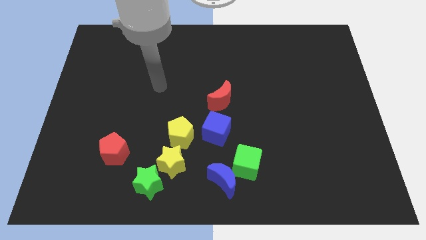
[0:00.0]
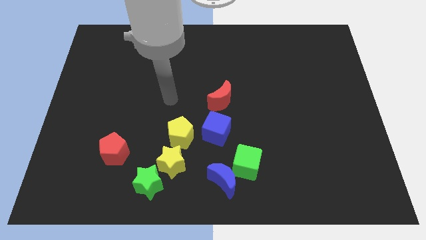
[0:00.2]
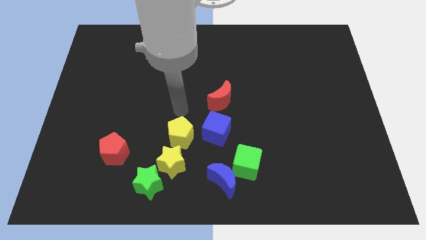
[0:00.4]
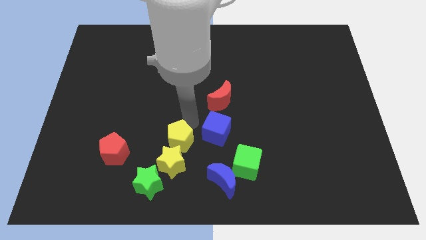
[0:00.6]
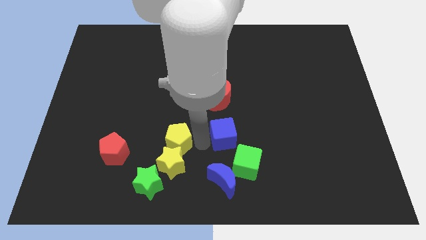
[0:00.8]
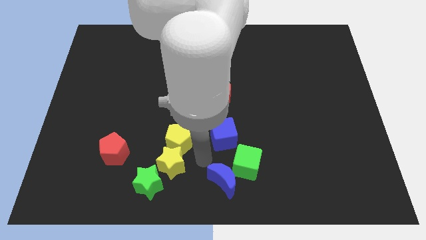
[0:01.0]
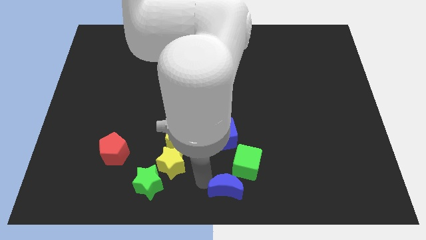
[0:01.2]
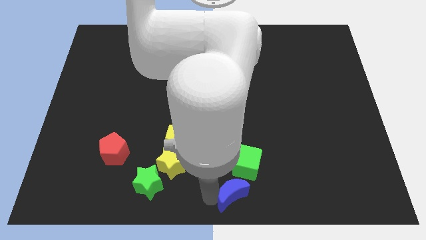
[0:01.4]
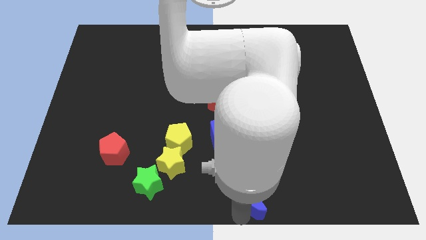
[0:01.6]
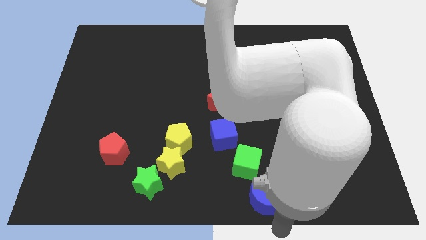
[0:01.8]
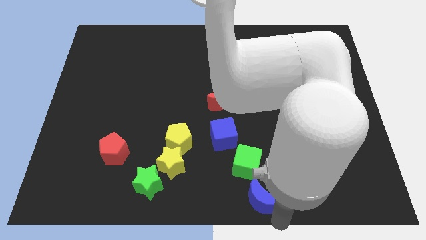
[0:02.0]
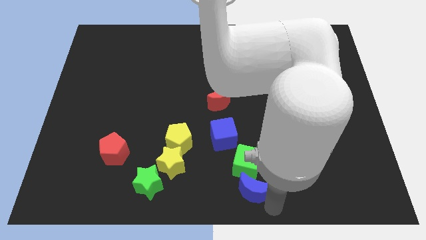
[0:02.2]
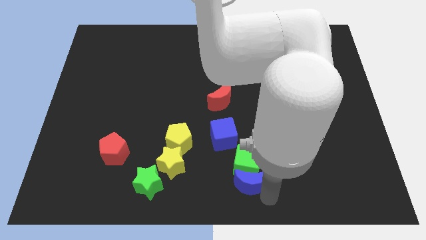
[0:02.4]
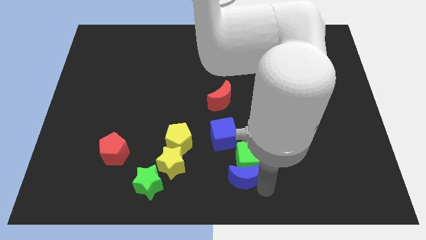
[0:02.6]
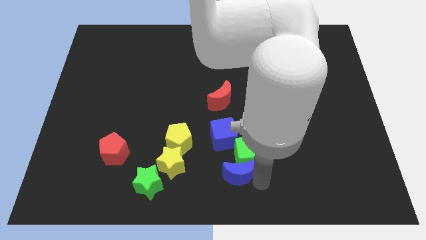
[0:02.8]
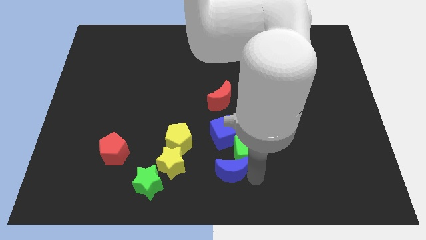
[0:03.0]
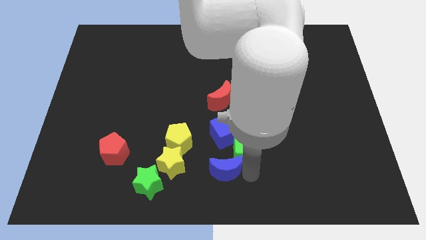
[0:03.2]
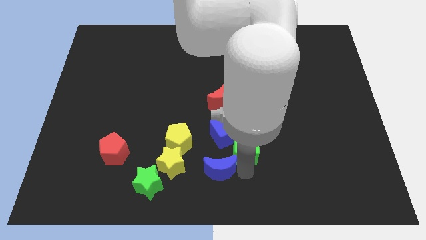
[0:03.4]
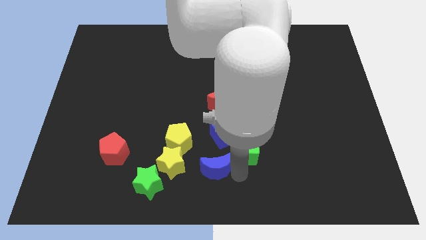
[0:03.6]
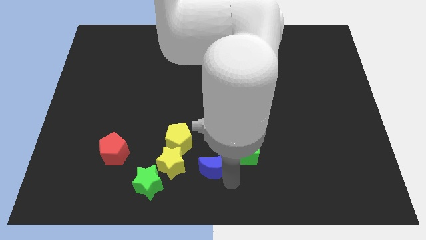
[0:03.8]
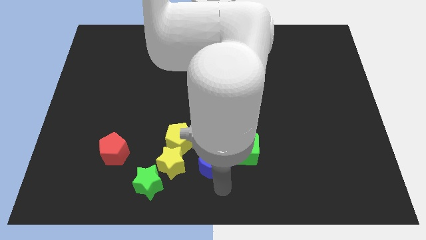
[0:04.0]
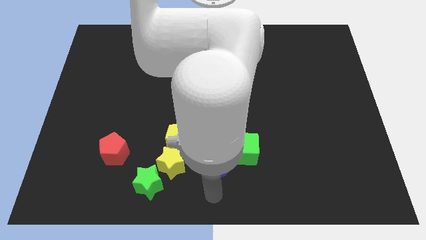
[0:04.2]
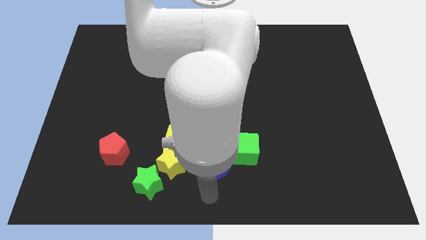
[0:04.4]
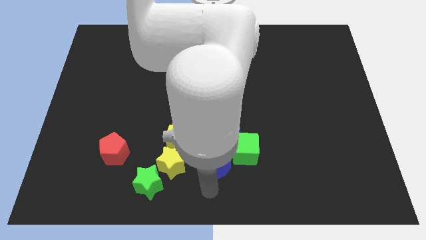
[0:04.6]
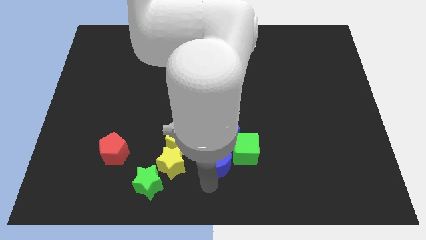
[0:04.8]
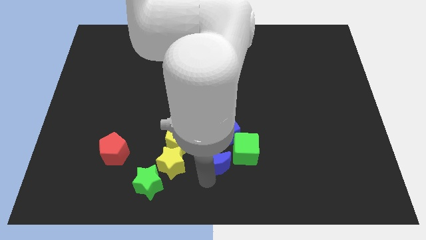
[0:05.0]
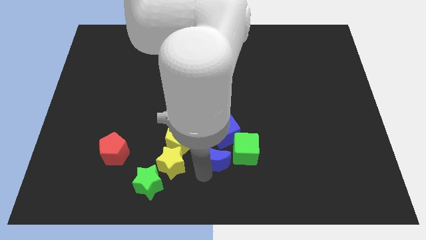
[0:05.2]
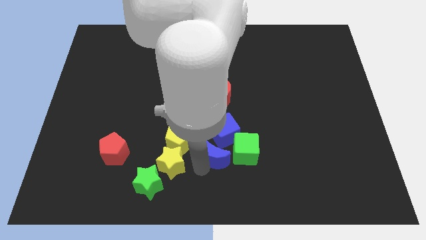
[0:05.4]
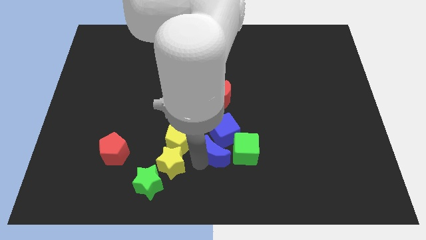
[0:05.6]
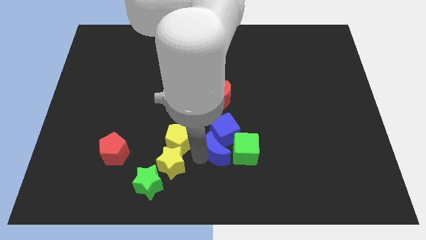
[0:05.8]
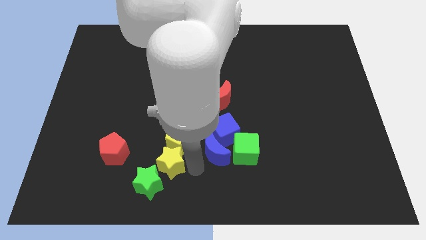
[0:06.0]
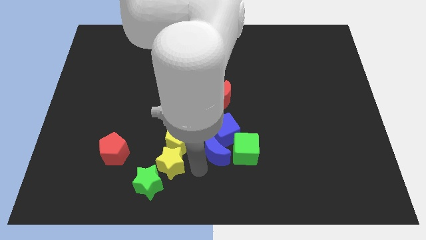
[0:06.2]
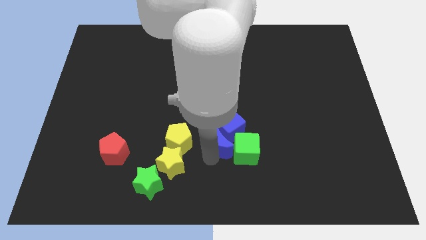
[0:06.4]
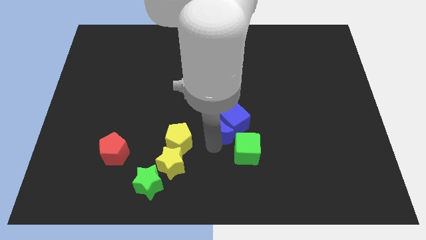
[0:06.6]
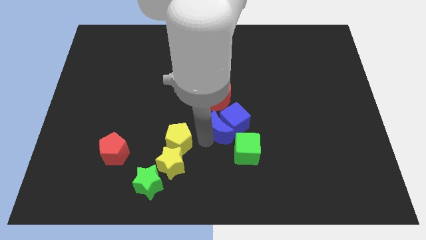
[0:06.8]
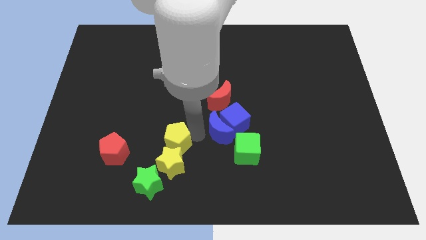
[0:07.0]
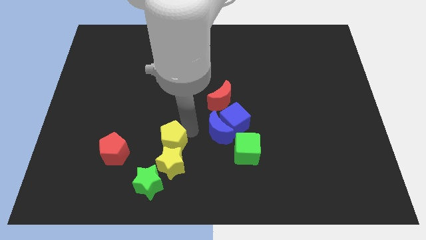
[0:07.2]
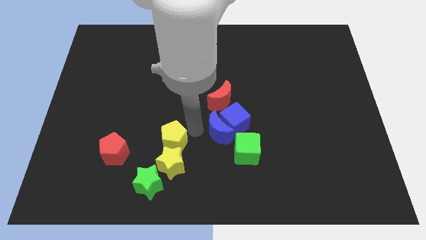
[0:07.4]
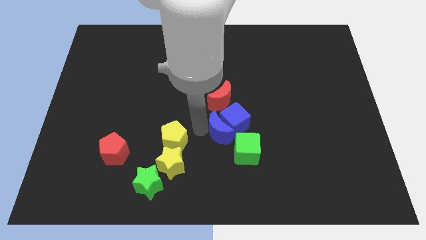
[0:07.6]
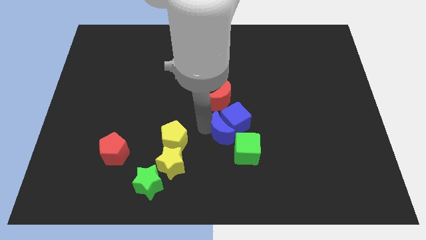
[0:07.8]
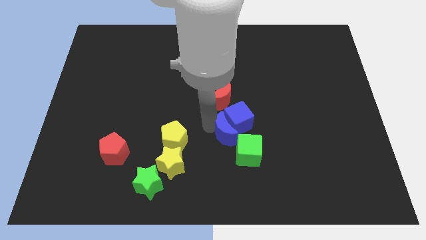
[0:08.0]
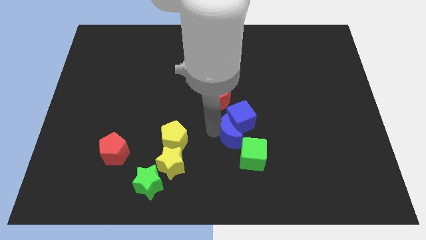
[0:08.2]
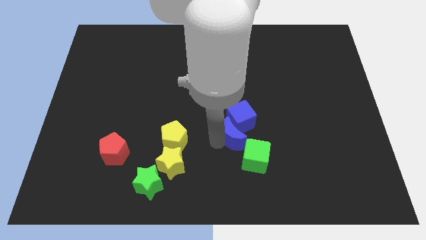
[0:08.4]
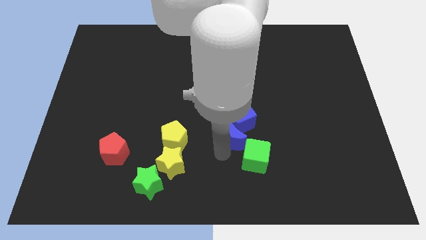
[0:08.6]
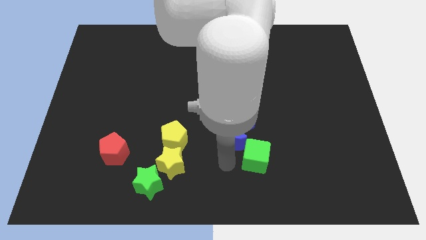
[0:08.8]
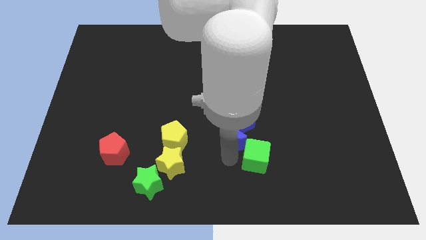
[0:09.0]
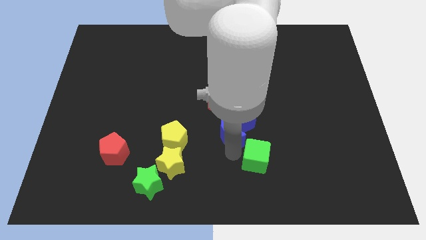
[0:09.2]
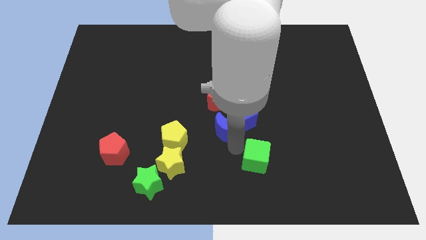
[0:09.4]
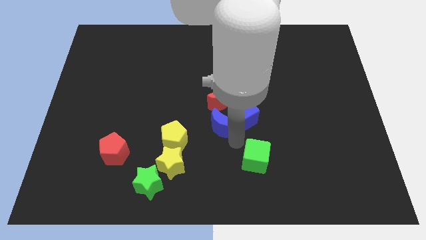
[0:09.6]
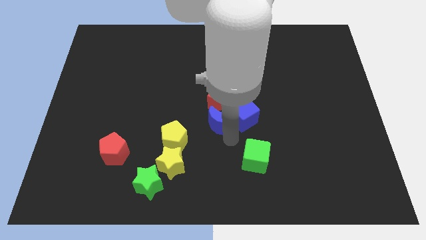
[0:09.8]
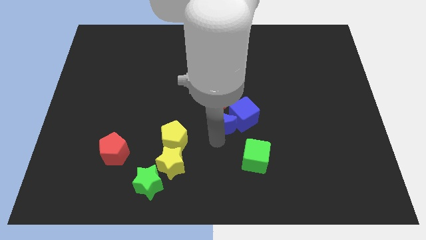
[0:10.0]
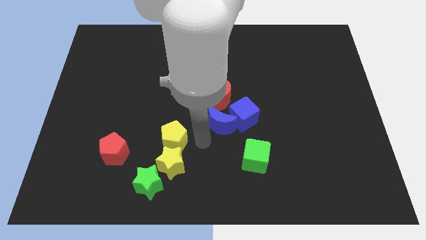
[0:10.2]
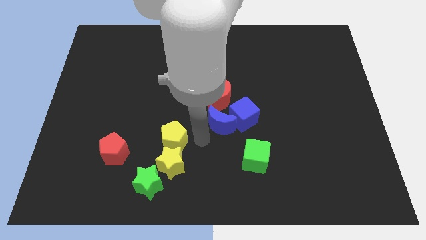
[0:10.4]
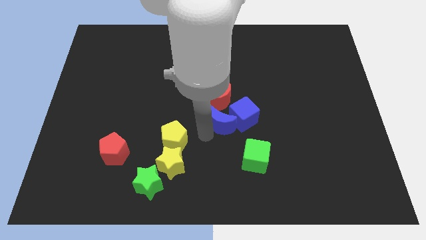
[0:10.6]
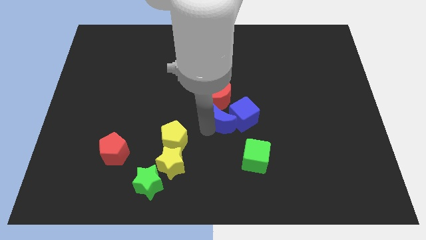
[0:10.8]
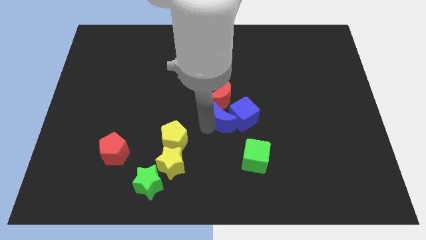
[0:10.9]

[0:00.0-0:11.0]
put the blue moon to the red moon

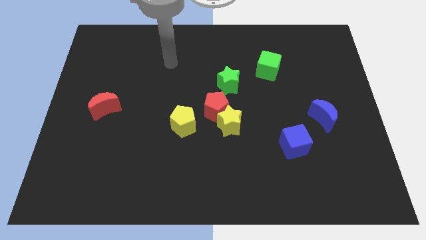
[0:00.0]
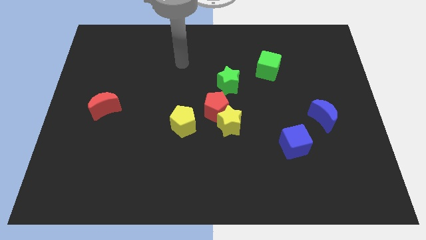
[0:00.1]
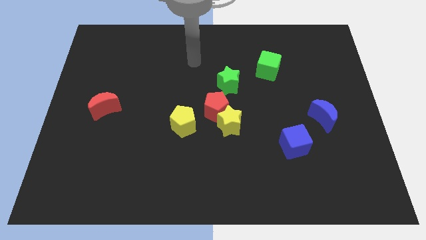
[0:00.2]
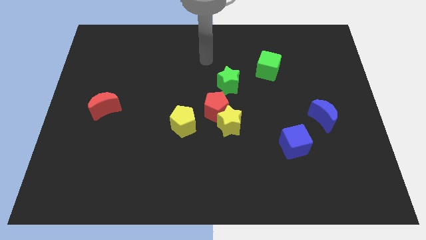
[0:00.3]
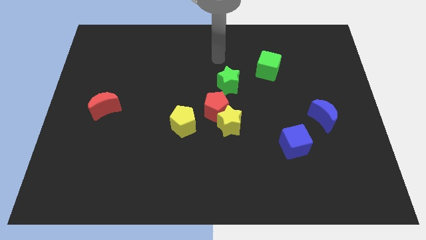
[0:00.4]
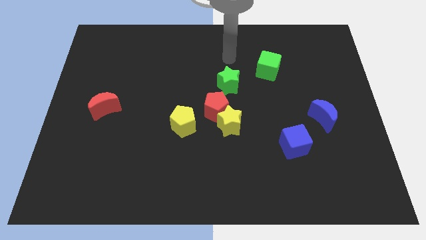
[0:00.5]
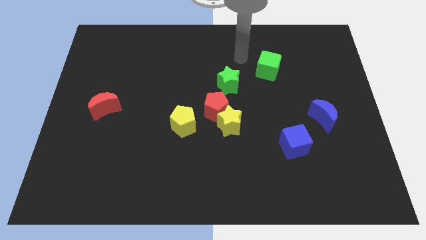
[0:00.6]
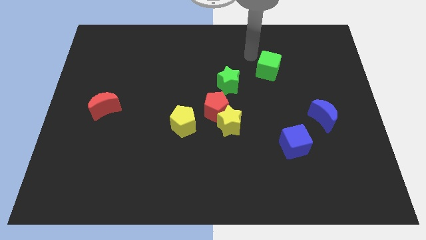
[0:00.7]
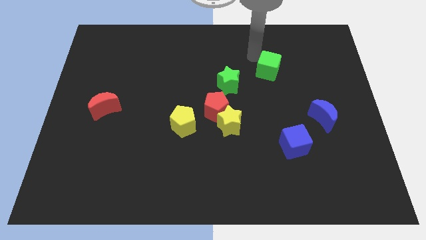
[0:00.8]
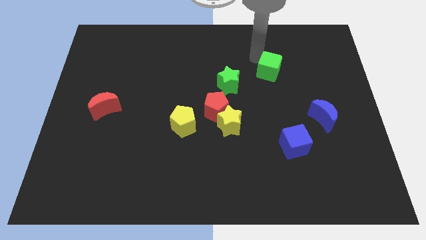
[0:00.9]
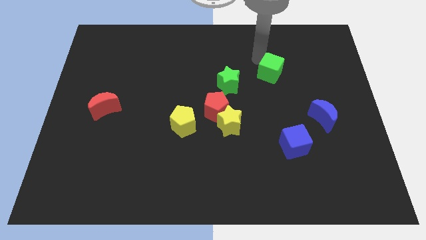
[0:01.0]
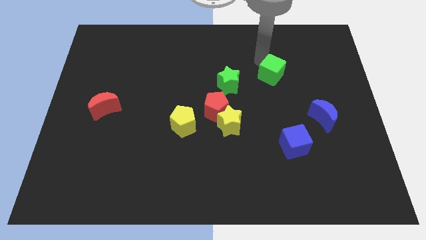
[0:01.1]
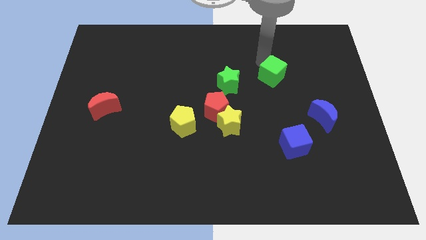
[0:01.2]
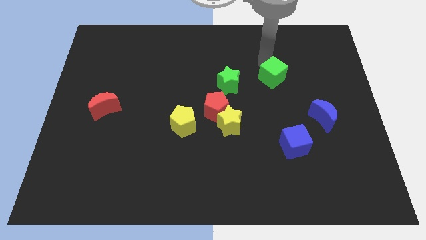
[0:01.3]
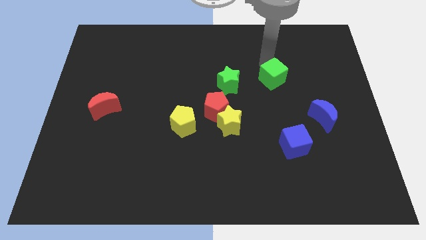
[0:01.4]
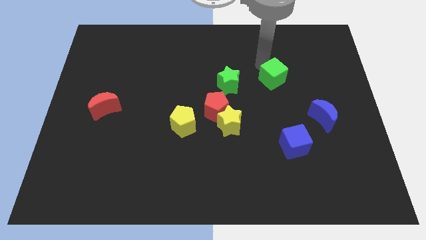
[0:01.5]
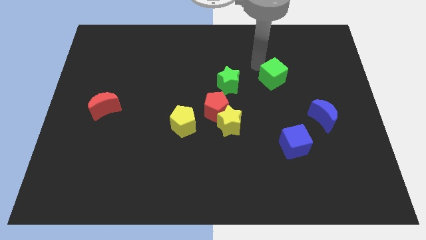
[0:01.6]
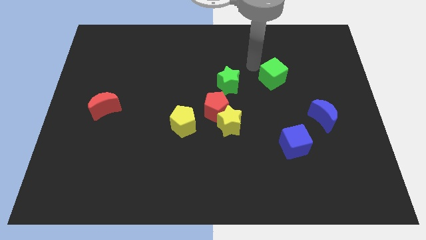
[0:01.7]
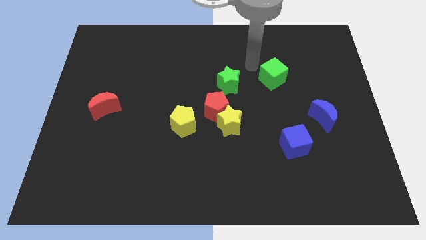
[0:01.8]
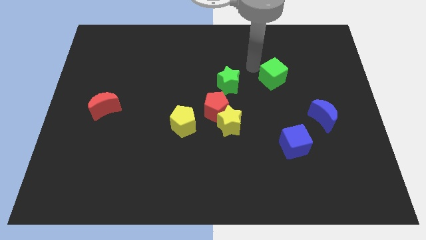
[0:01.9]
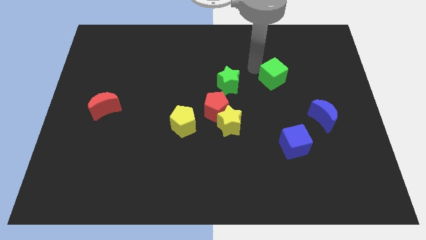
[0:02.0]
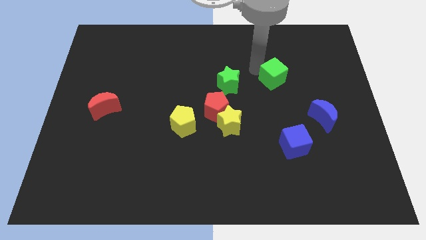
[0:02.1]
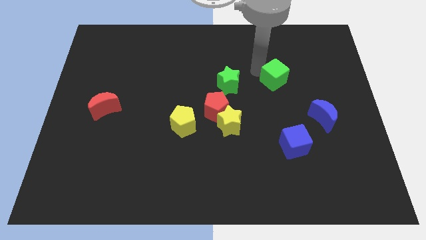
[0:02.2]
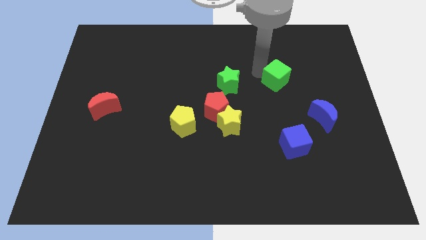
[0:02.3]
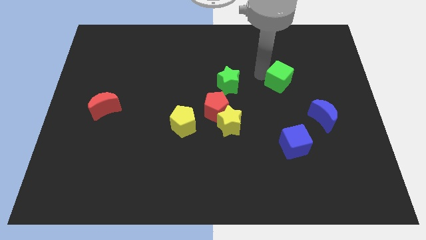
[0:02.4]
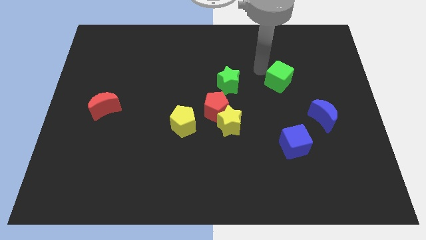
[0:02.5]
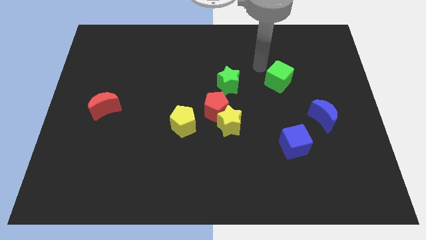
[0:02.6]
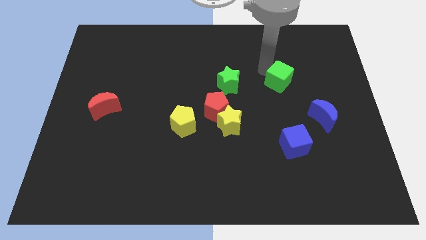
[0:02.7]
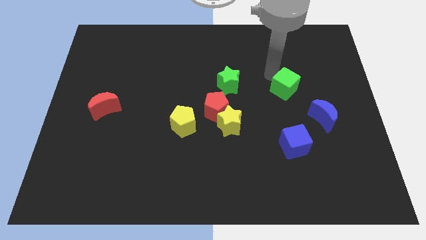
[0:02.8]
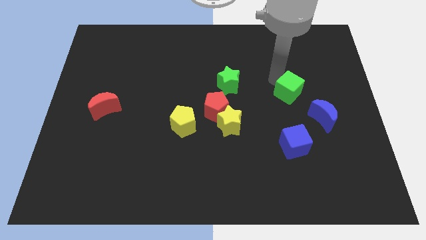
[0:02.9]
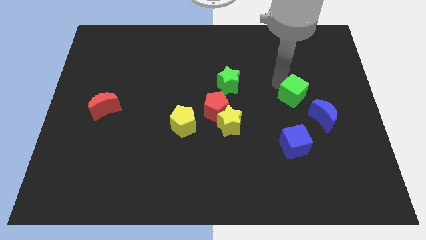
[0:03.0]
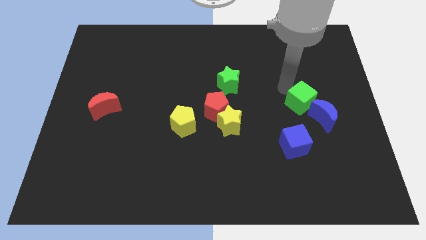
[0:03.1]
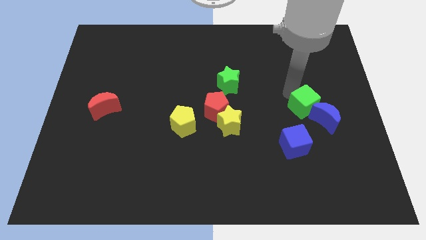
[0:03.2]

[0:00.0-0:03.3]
push the green cube close to the blue moon
